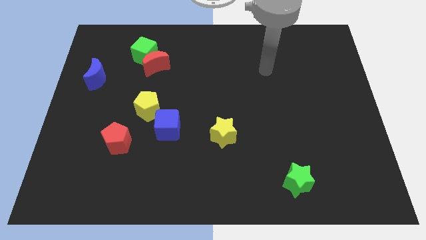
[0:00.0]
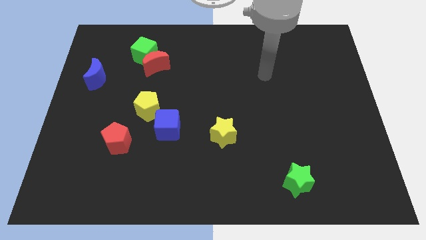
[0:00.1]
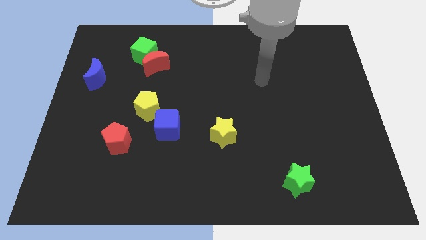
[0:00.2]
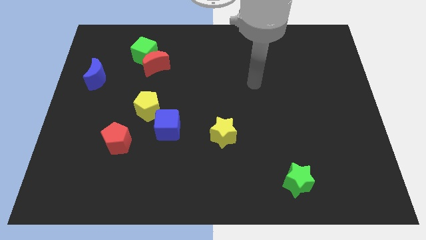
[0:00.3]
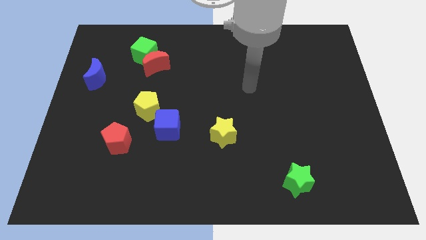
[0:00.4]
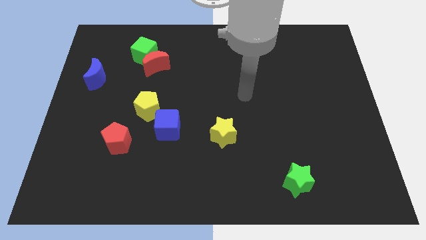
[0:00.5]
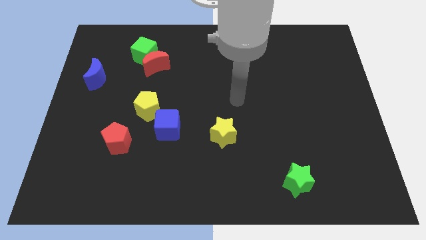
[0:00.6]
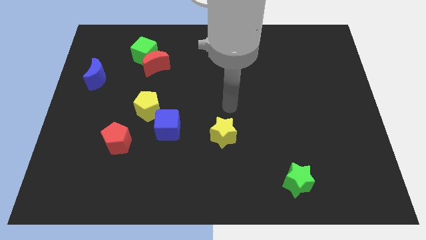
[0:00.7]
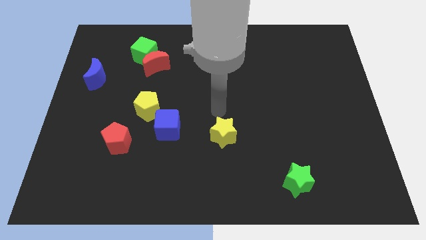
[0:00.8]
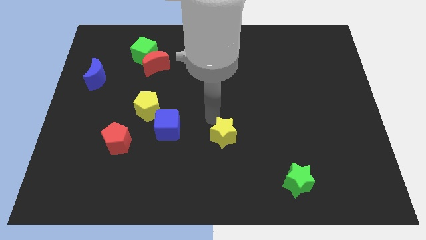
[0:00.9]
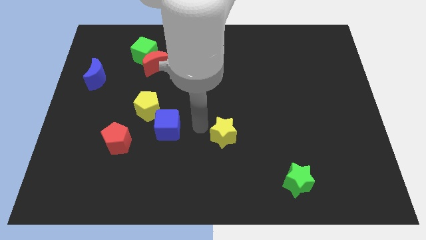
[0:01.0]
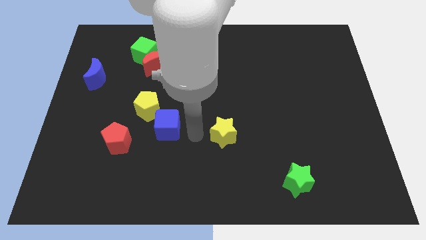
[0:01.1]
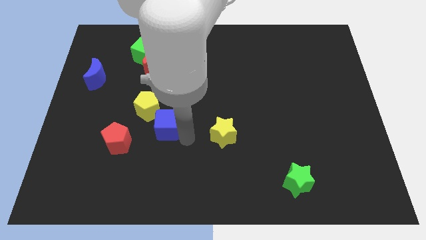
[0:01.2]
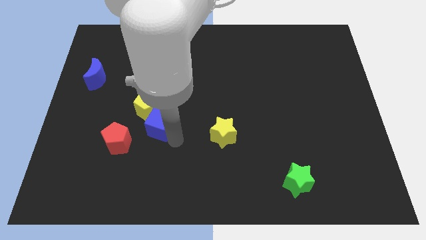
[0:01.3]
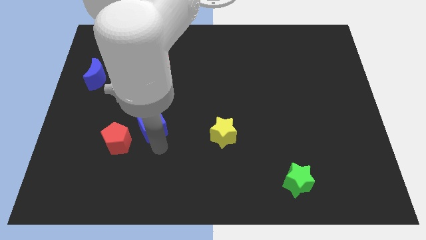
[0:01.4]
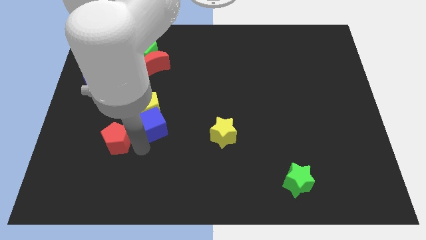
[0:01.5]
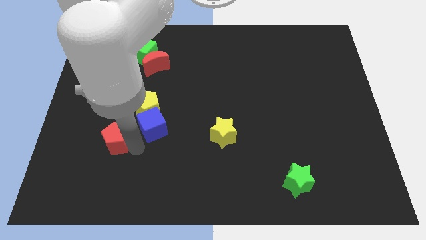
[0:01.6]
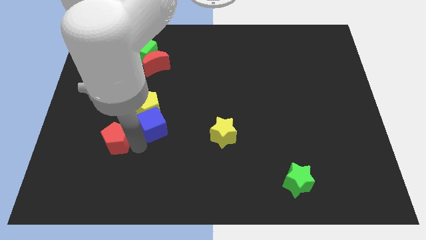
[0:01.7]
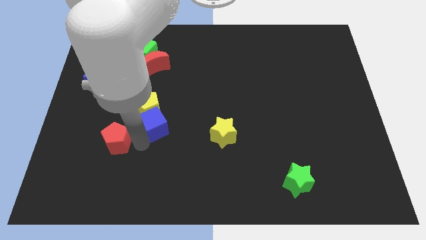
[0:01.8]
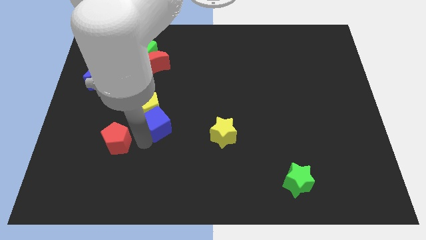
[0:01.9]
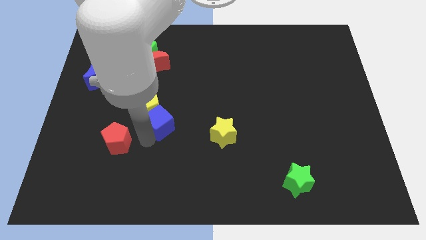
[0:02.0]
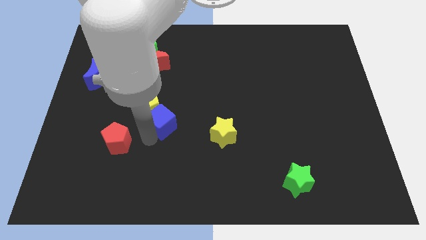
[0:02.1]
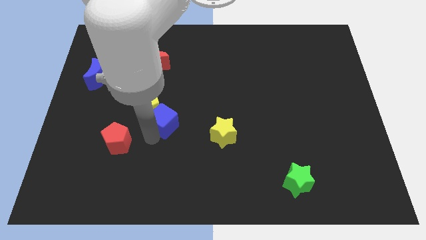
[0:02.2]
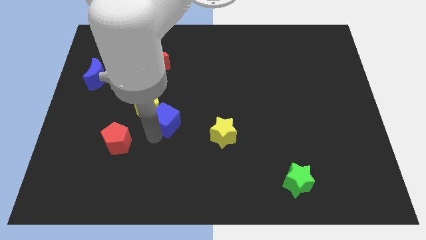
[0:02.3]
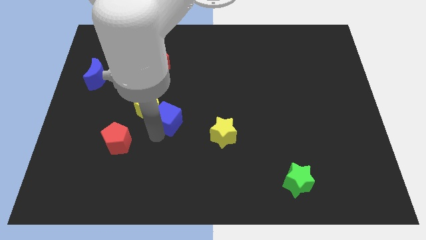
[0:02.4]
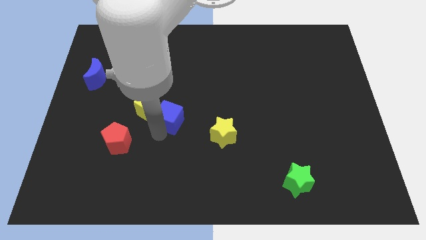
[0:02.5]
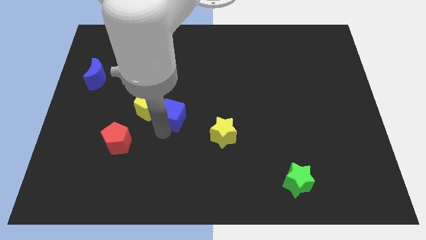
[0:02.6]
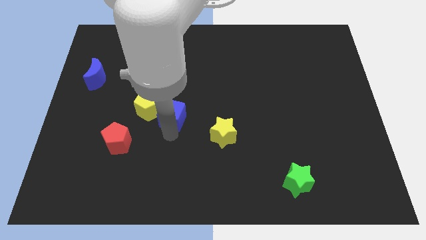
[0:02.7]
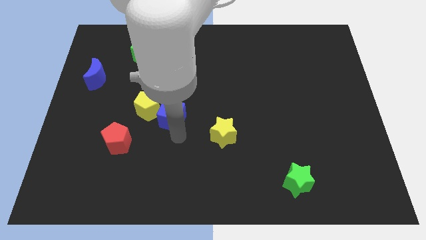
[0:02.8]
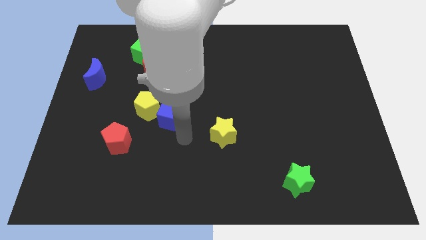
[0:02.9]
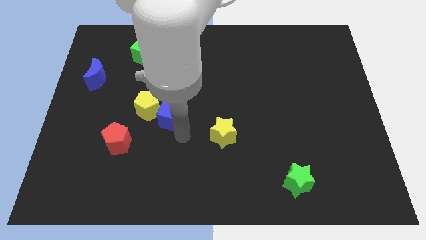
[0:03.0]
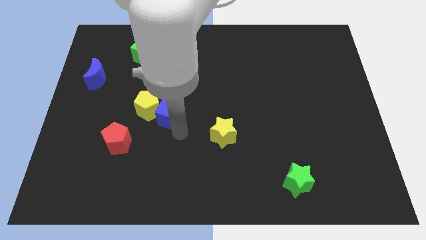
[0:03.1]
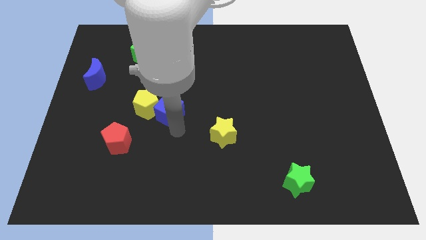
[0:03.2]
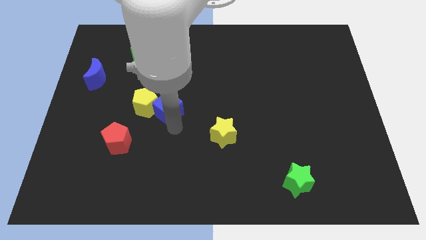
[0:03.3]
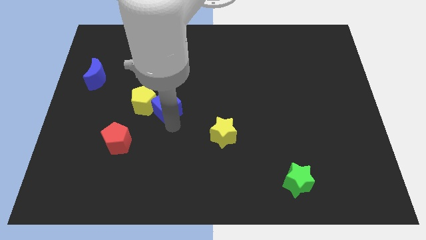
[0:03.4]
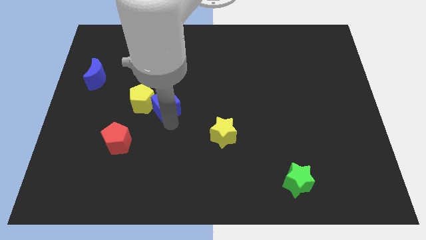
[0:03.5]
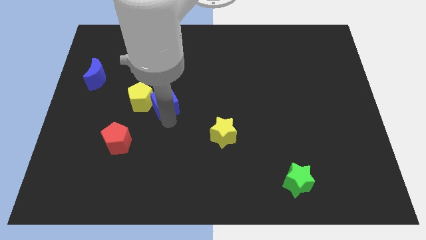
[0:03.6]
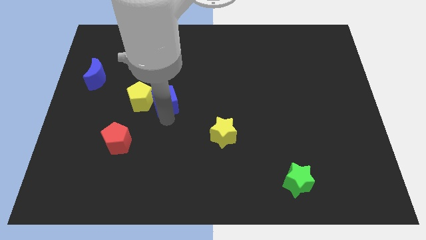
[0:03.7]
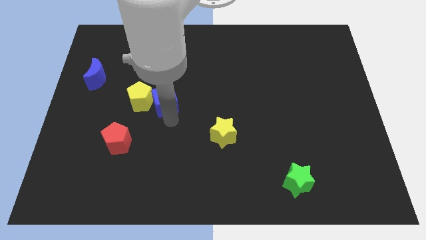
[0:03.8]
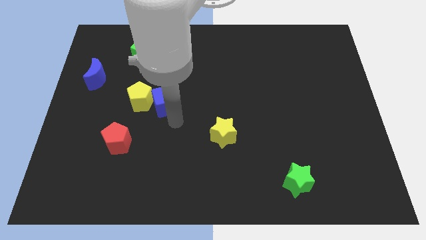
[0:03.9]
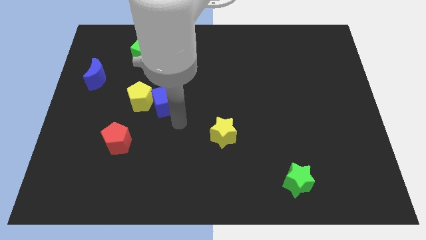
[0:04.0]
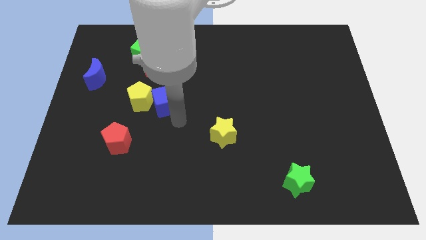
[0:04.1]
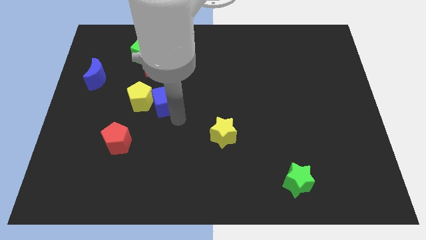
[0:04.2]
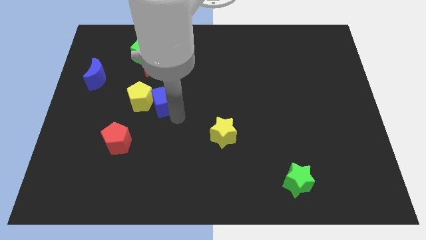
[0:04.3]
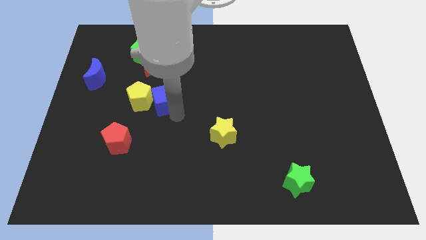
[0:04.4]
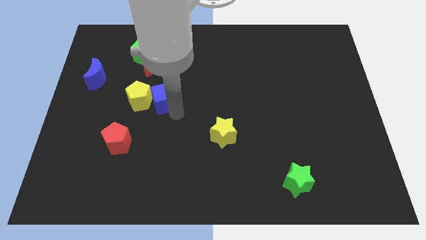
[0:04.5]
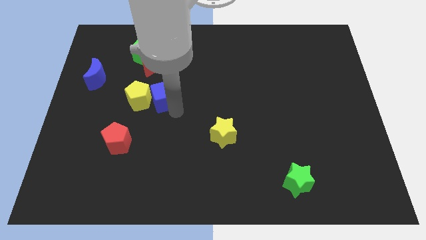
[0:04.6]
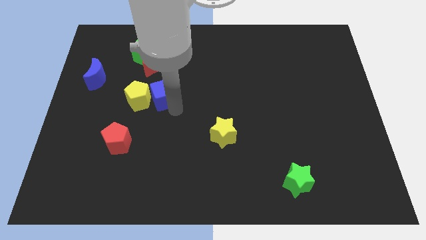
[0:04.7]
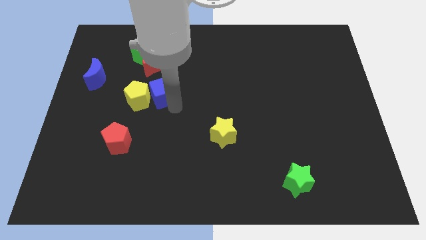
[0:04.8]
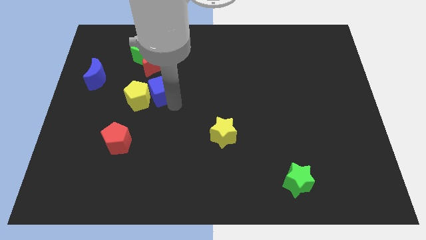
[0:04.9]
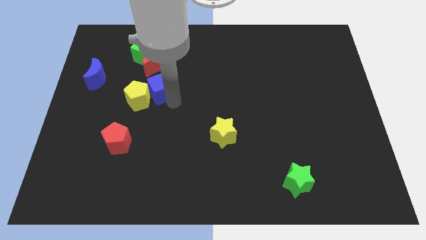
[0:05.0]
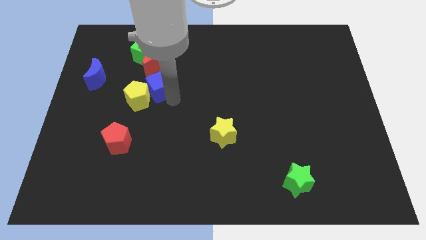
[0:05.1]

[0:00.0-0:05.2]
move the blue cube below the green cube

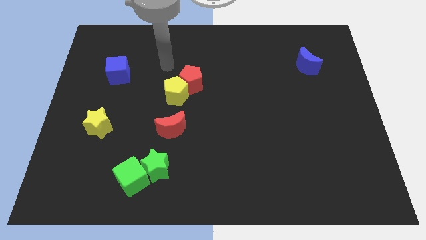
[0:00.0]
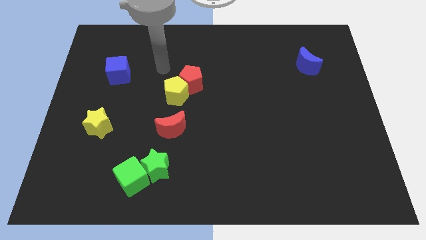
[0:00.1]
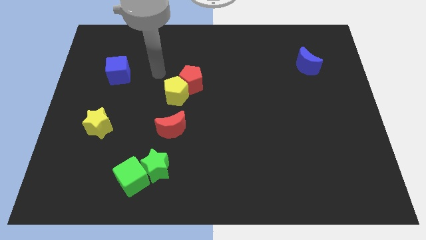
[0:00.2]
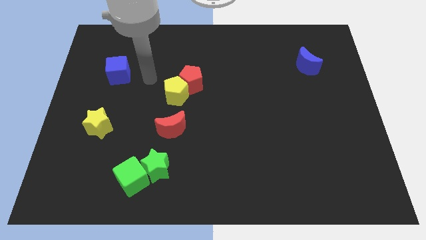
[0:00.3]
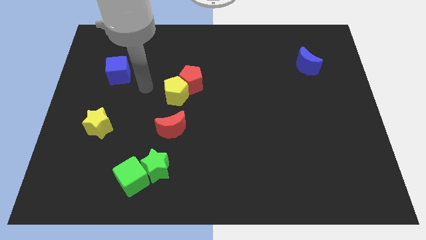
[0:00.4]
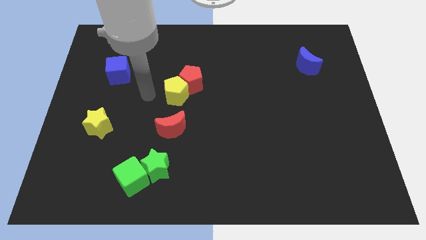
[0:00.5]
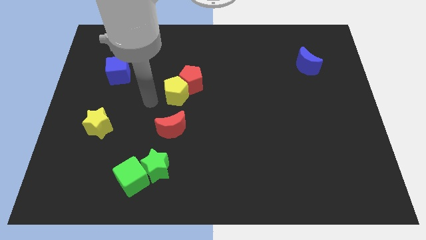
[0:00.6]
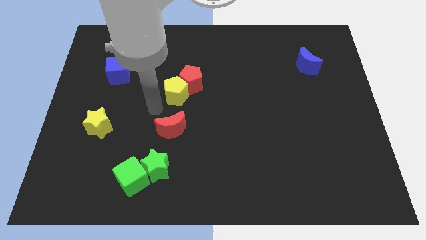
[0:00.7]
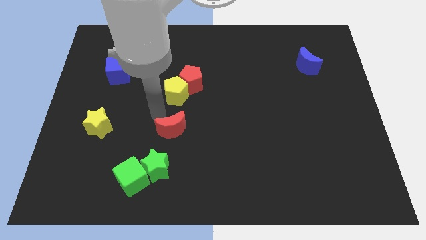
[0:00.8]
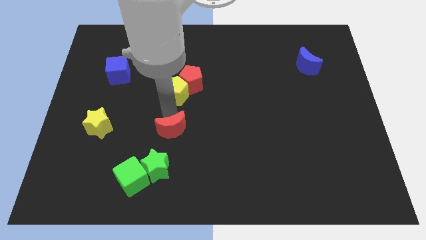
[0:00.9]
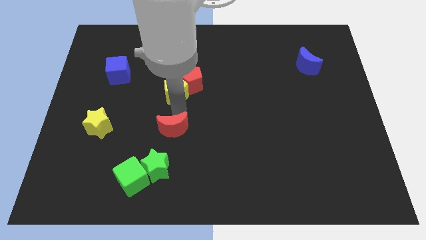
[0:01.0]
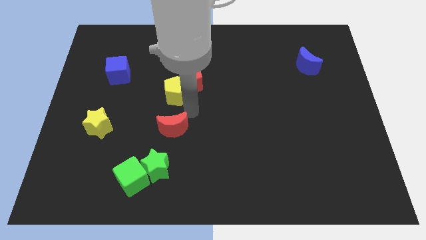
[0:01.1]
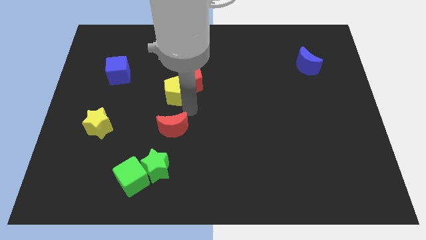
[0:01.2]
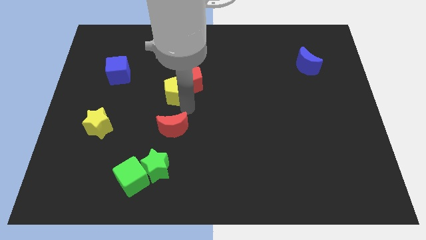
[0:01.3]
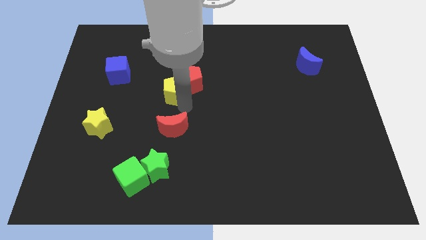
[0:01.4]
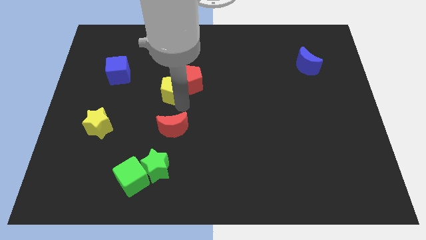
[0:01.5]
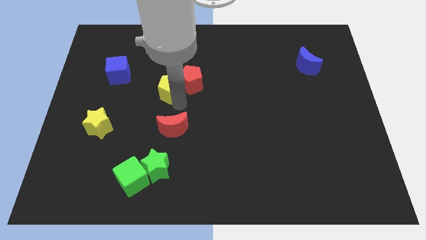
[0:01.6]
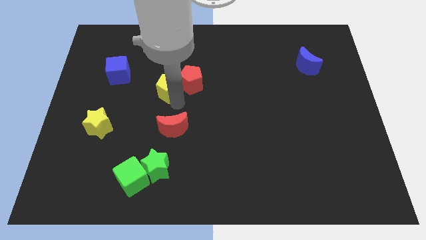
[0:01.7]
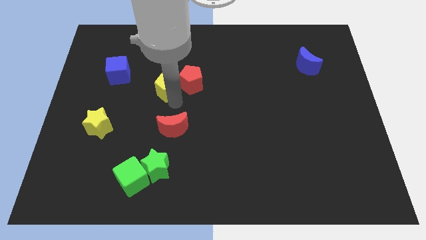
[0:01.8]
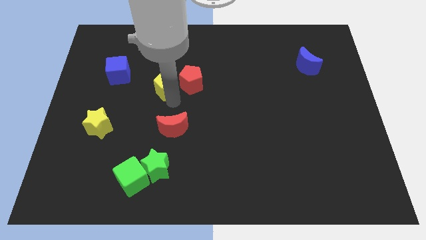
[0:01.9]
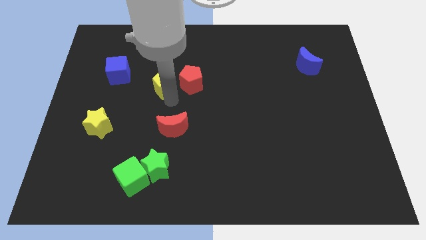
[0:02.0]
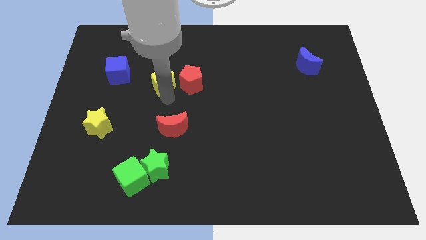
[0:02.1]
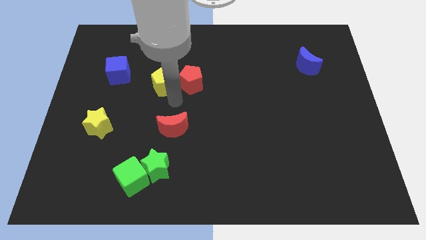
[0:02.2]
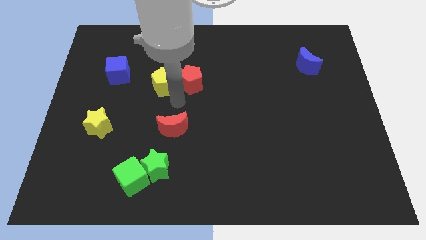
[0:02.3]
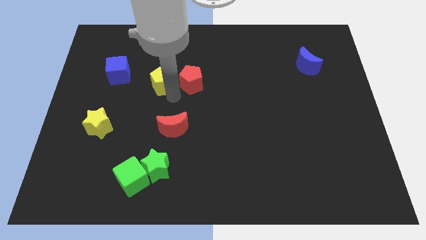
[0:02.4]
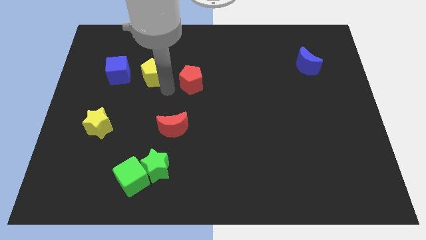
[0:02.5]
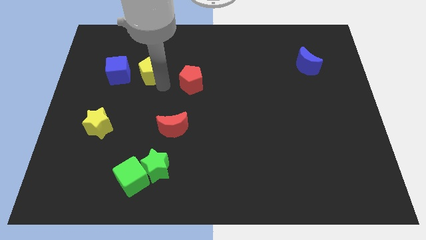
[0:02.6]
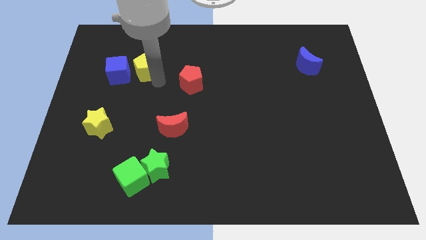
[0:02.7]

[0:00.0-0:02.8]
move the yellow pentagon to the top right side of the blue cube
